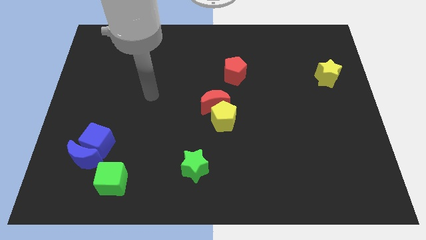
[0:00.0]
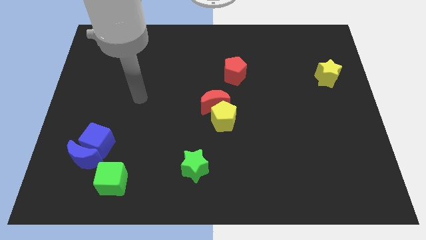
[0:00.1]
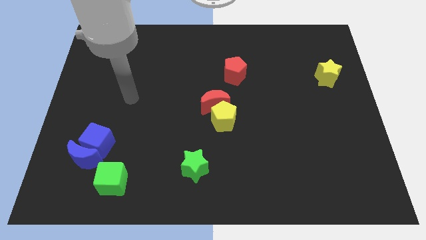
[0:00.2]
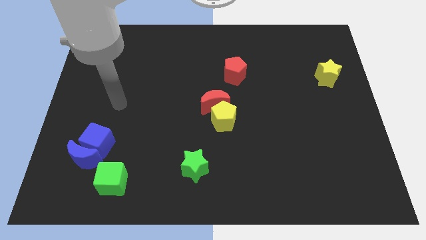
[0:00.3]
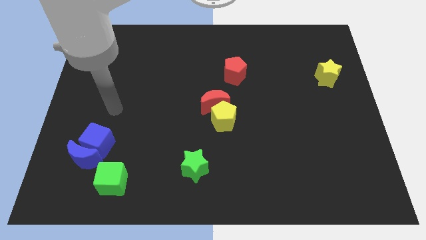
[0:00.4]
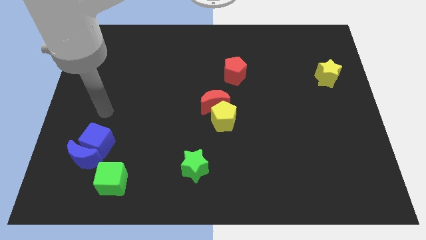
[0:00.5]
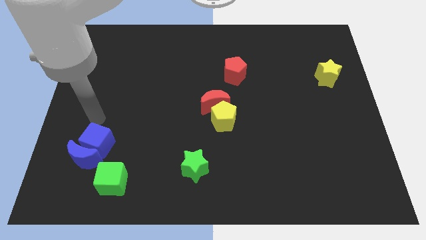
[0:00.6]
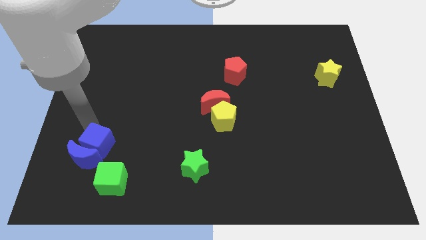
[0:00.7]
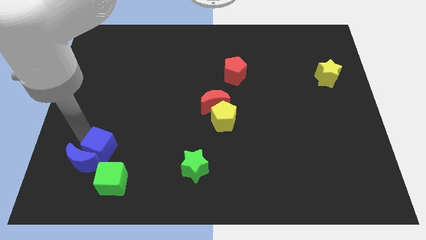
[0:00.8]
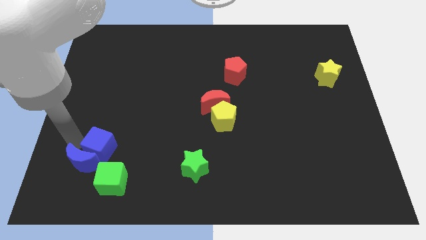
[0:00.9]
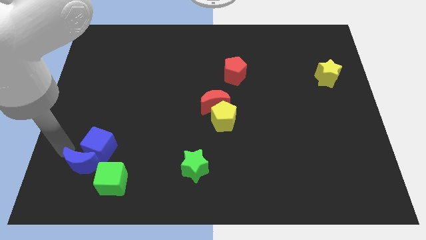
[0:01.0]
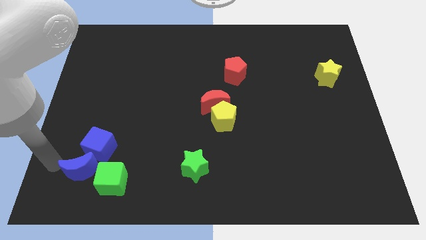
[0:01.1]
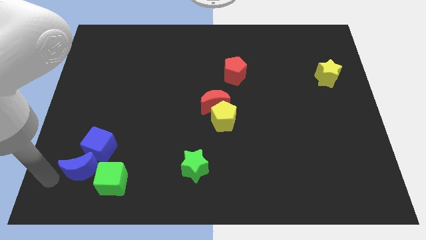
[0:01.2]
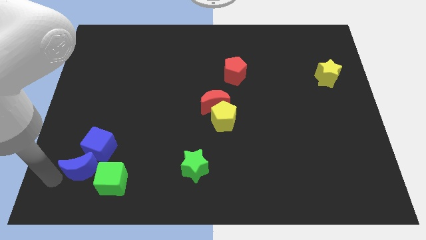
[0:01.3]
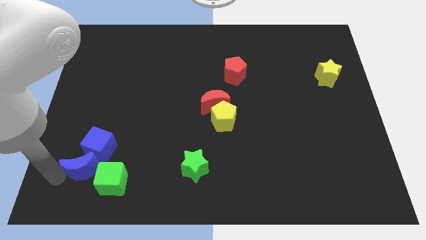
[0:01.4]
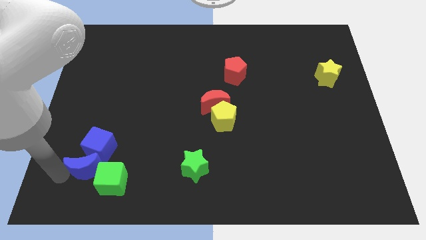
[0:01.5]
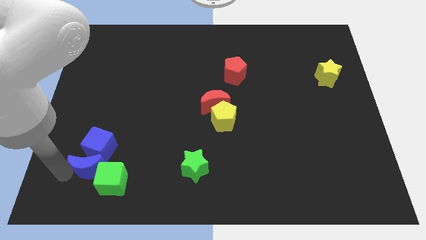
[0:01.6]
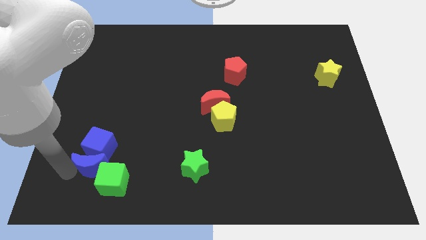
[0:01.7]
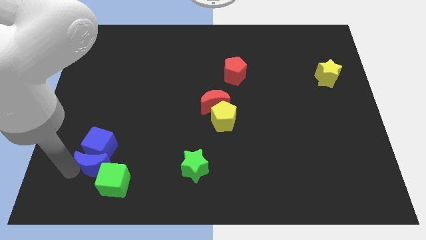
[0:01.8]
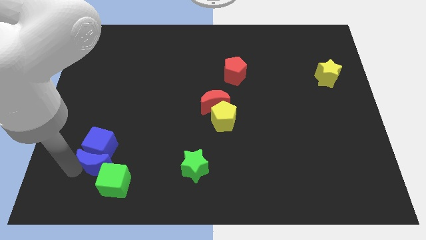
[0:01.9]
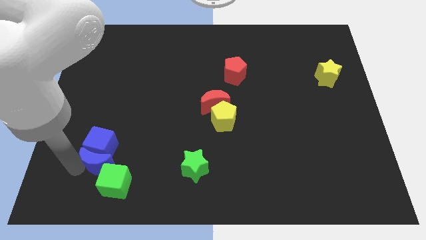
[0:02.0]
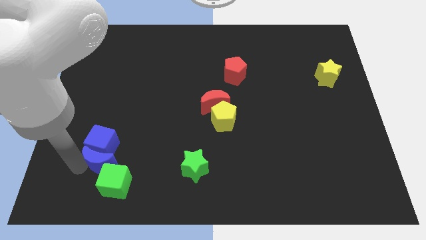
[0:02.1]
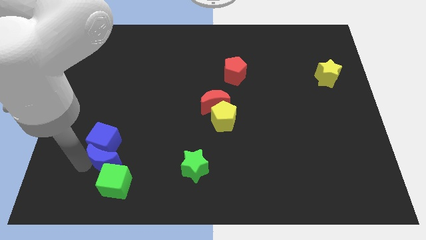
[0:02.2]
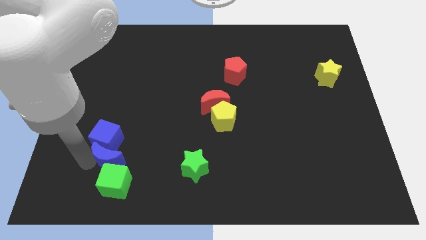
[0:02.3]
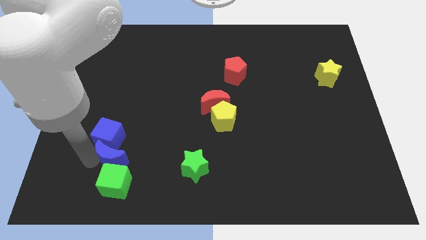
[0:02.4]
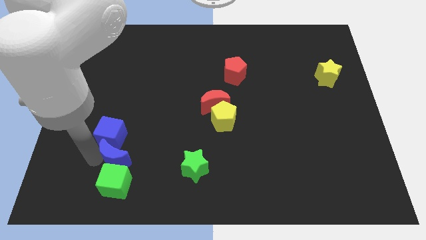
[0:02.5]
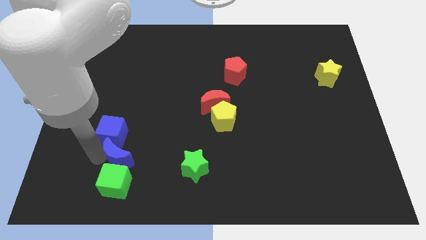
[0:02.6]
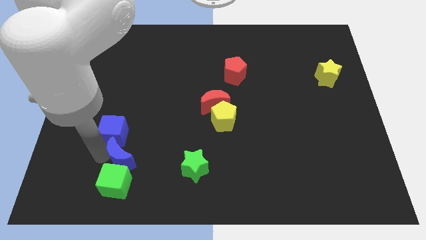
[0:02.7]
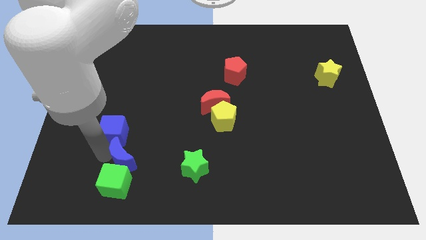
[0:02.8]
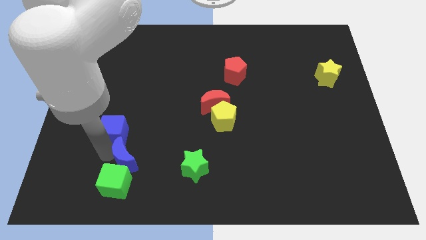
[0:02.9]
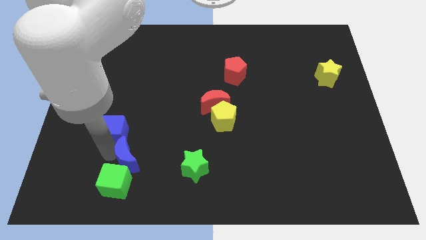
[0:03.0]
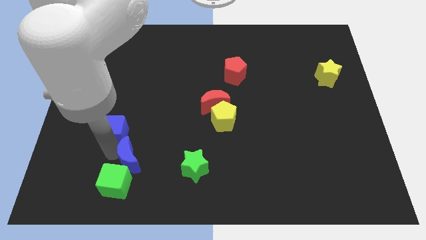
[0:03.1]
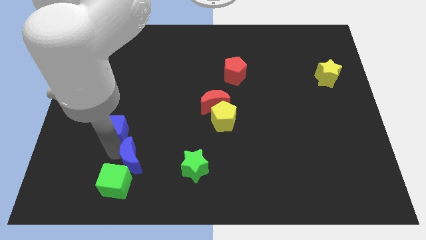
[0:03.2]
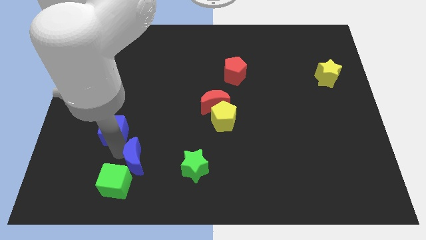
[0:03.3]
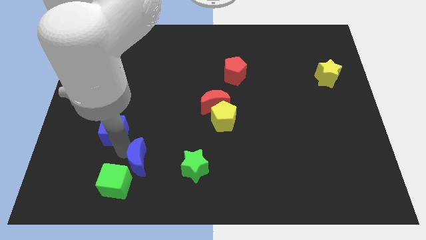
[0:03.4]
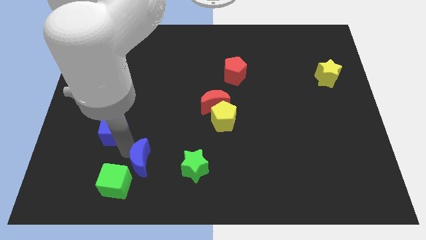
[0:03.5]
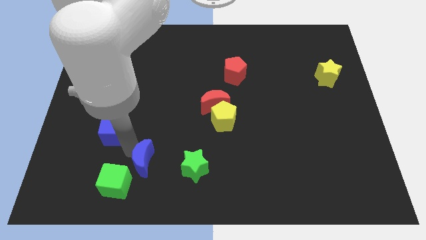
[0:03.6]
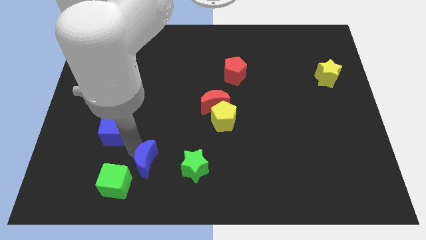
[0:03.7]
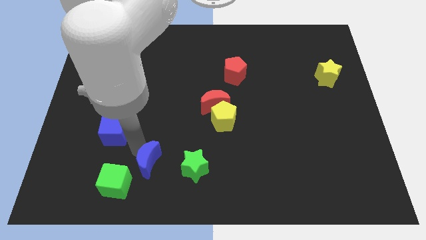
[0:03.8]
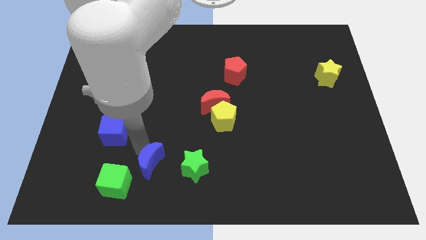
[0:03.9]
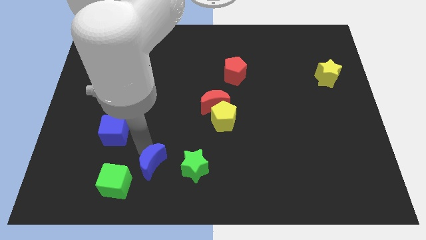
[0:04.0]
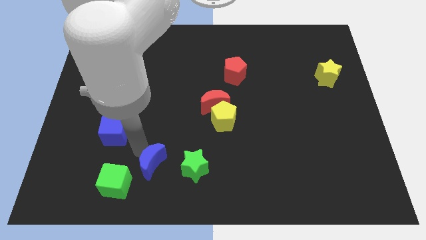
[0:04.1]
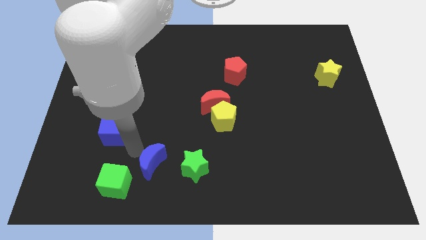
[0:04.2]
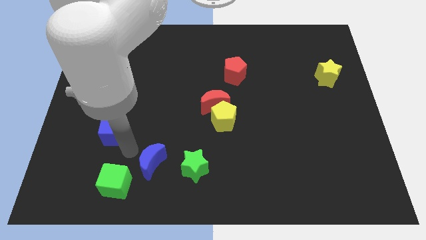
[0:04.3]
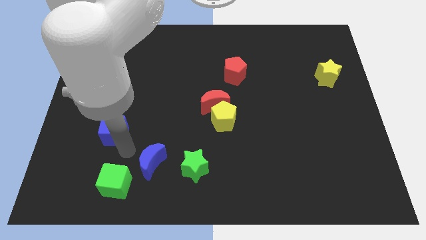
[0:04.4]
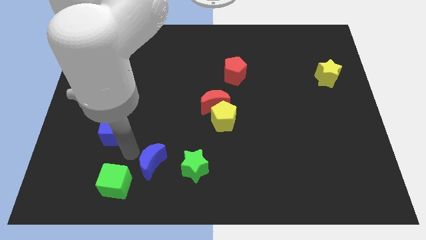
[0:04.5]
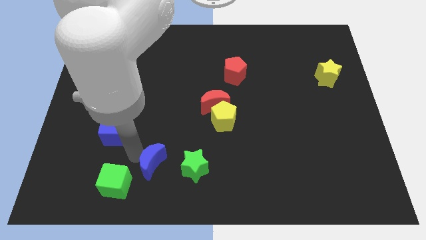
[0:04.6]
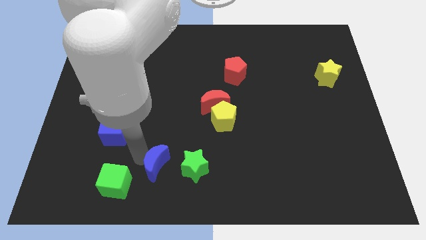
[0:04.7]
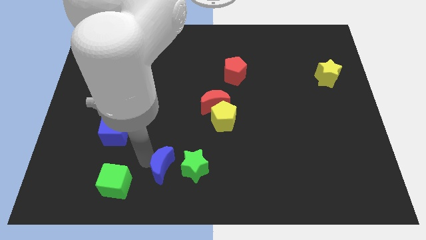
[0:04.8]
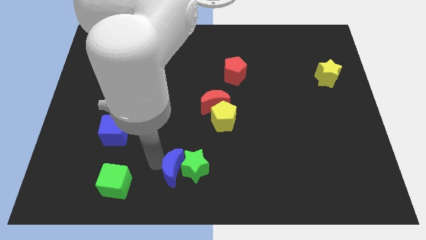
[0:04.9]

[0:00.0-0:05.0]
move the blue moon to the bottom side

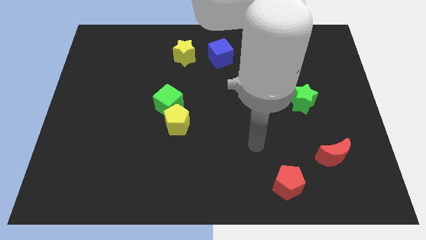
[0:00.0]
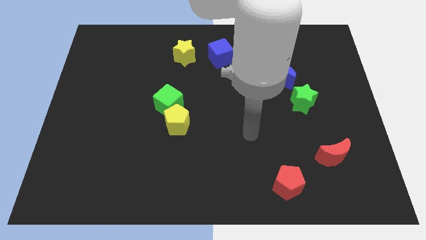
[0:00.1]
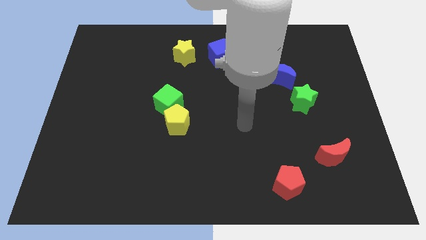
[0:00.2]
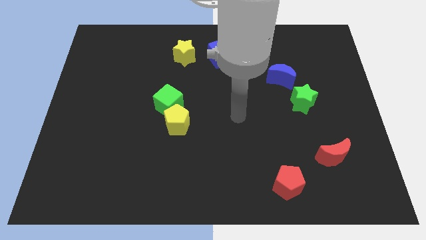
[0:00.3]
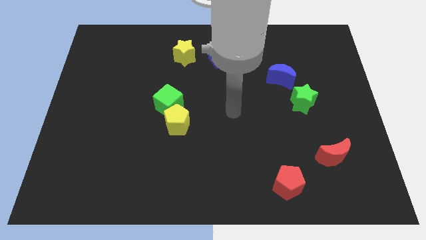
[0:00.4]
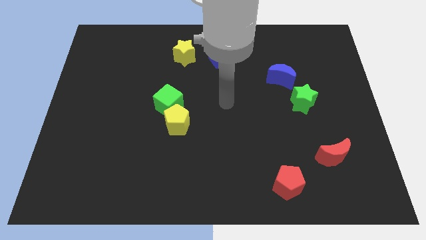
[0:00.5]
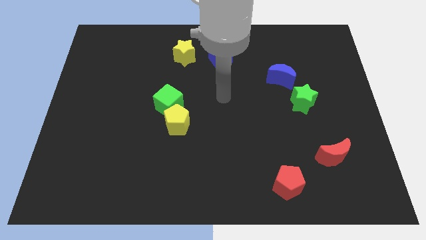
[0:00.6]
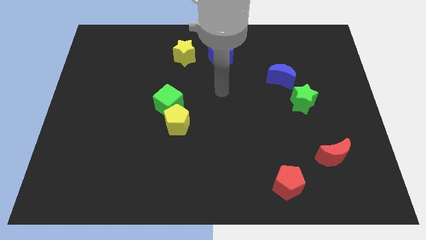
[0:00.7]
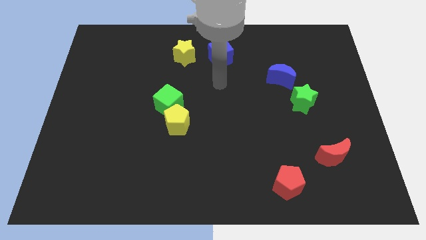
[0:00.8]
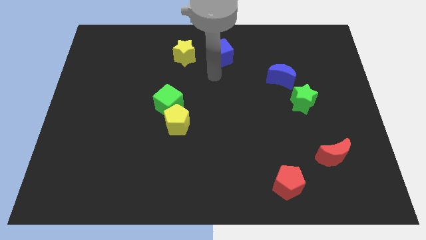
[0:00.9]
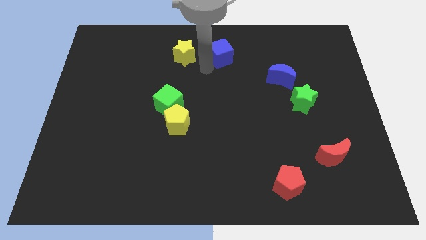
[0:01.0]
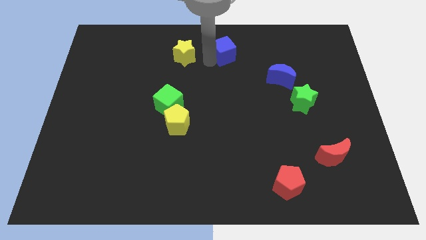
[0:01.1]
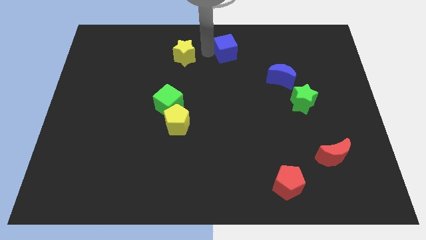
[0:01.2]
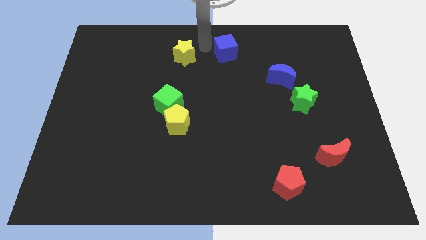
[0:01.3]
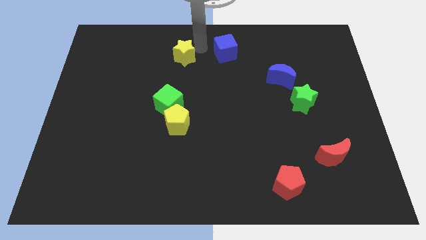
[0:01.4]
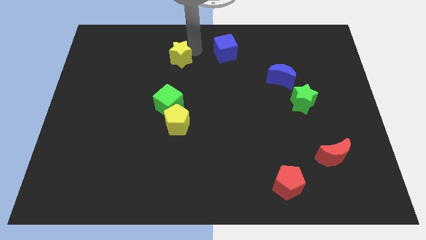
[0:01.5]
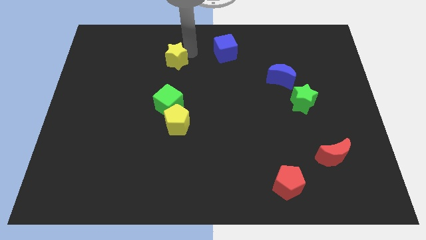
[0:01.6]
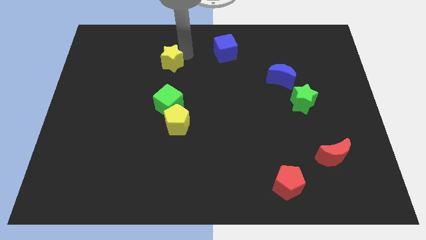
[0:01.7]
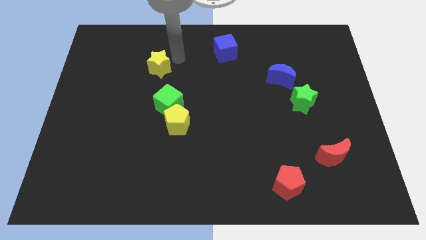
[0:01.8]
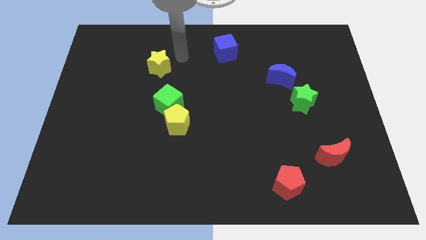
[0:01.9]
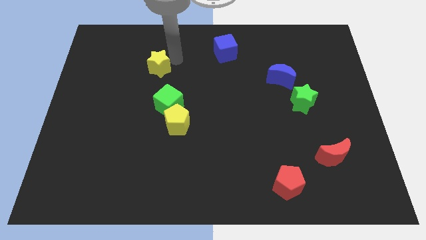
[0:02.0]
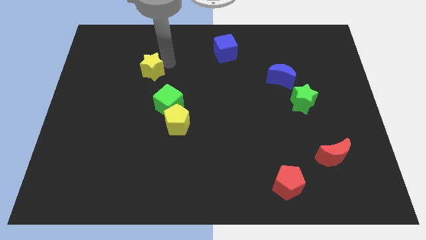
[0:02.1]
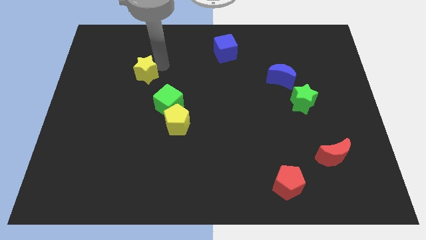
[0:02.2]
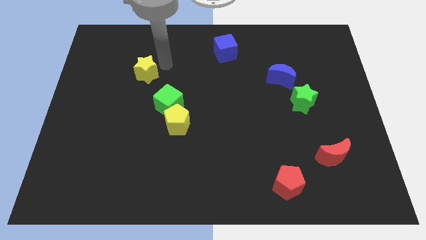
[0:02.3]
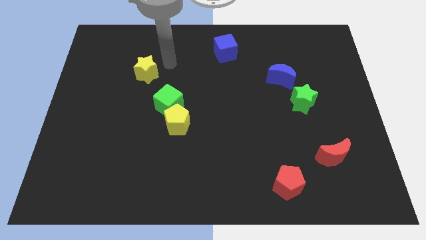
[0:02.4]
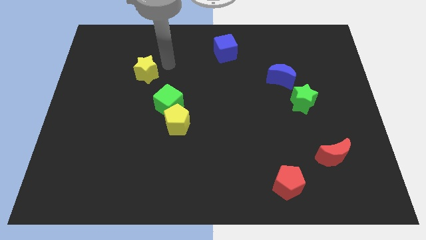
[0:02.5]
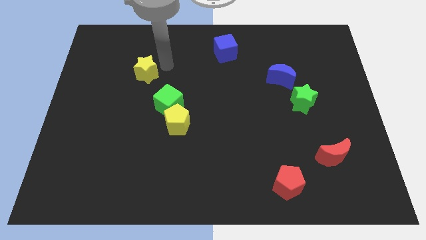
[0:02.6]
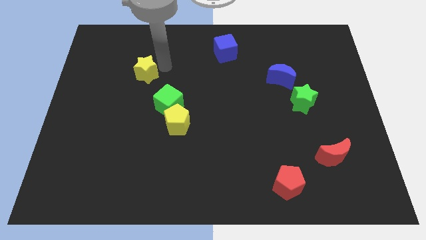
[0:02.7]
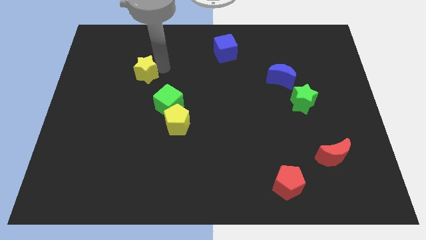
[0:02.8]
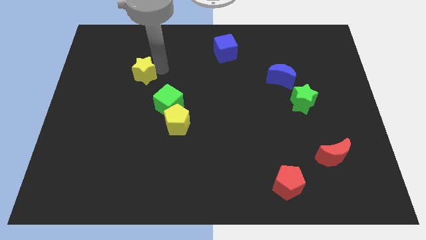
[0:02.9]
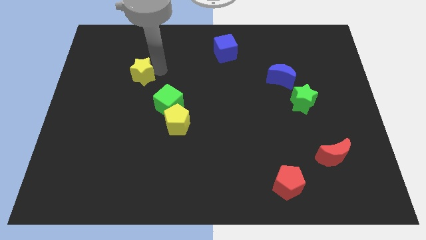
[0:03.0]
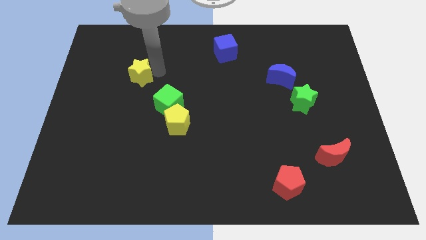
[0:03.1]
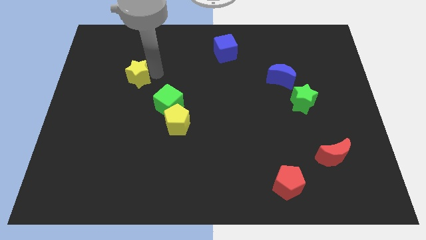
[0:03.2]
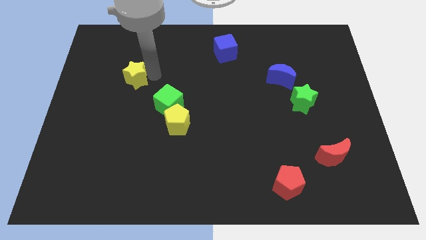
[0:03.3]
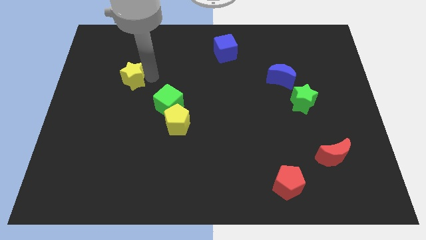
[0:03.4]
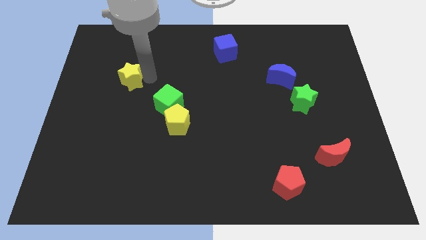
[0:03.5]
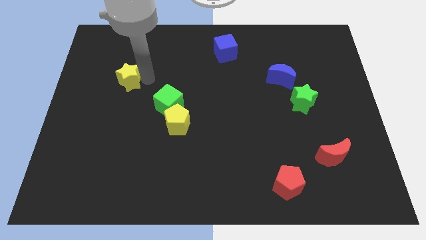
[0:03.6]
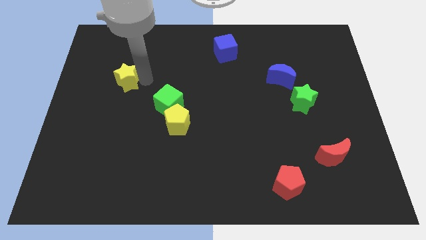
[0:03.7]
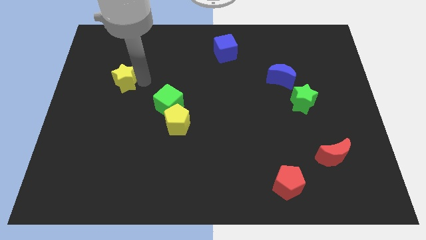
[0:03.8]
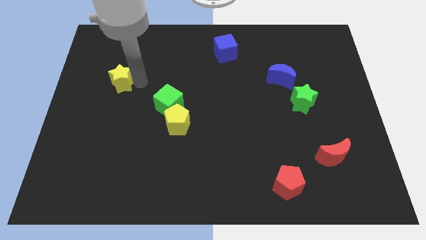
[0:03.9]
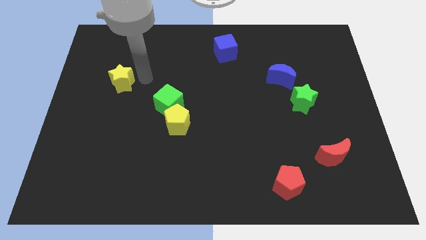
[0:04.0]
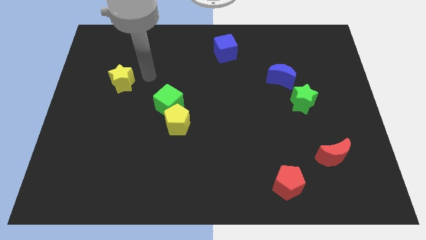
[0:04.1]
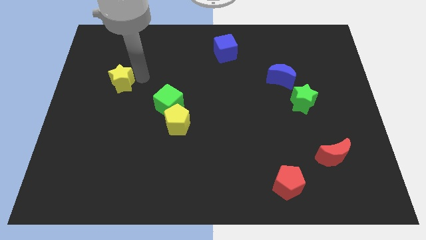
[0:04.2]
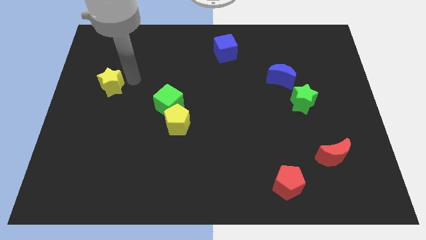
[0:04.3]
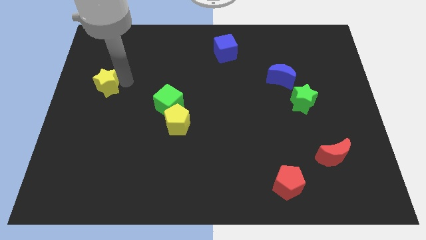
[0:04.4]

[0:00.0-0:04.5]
put the yellow star to the left side
